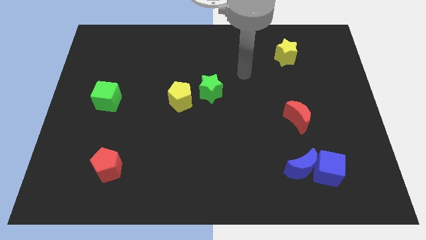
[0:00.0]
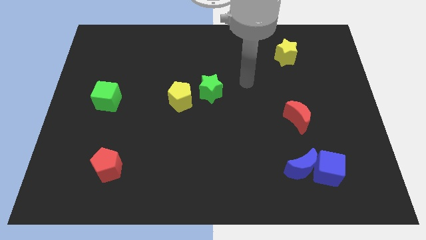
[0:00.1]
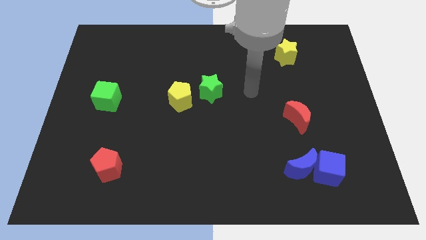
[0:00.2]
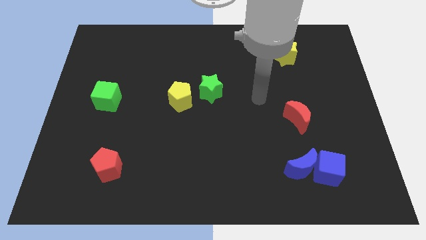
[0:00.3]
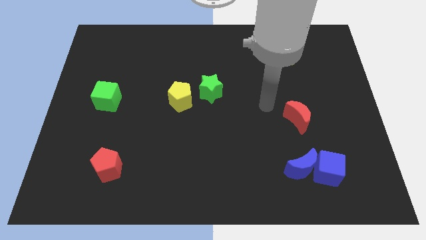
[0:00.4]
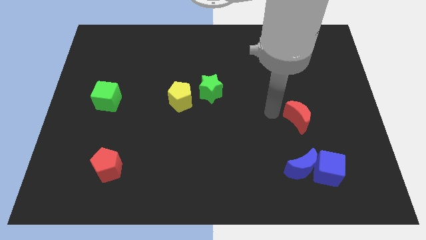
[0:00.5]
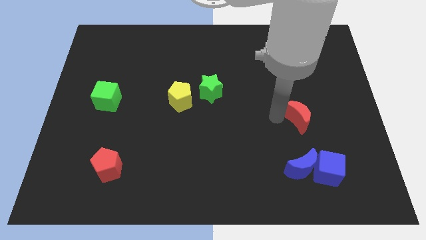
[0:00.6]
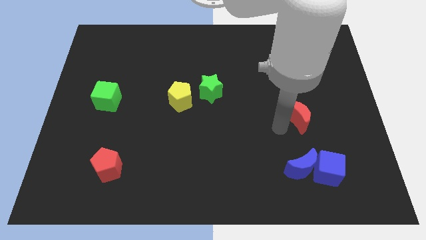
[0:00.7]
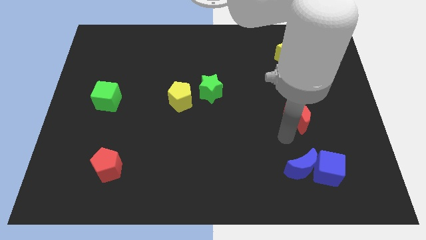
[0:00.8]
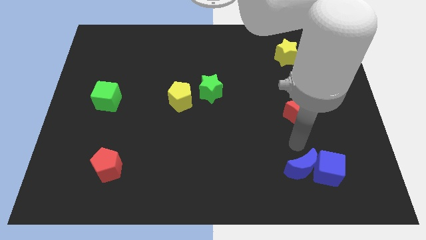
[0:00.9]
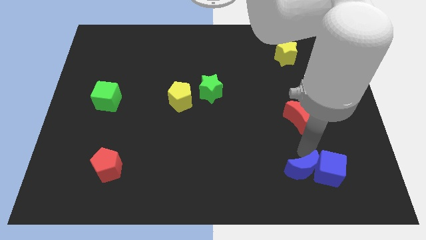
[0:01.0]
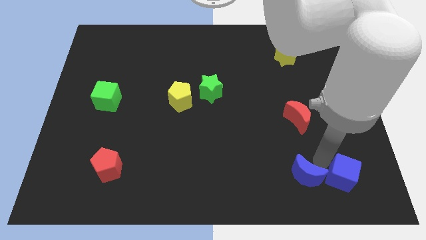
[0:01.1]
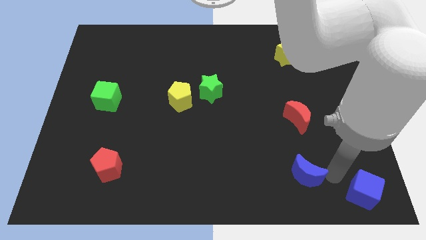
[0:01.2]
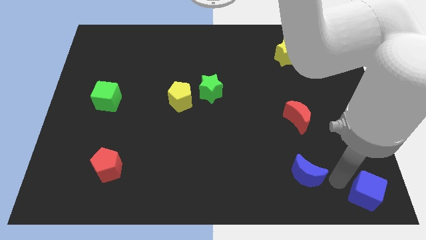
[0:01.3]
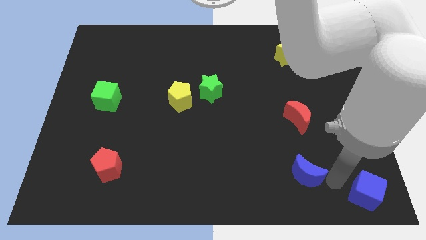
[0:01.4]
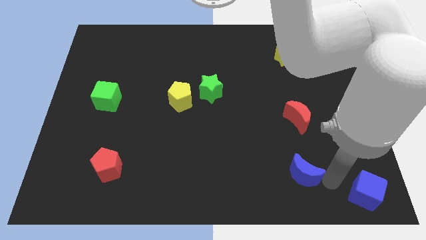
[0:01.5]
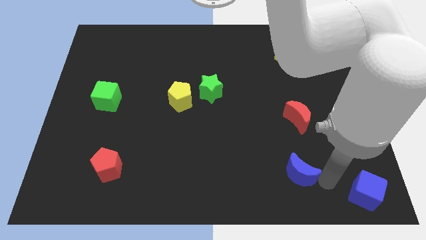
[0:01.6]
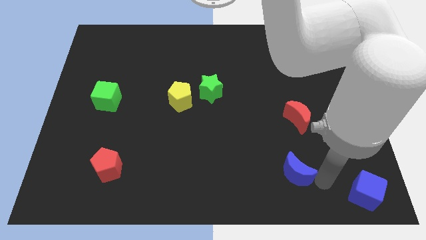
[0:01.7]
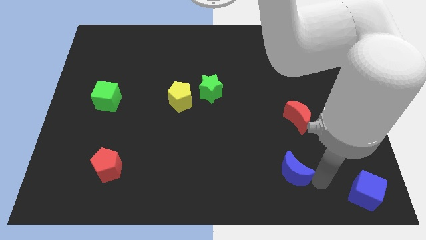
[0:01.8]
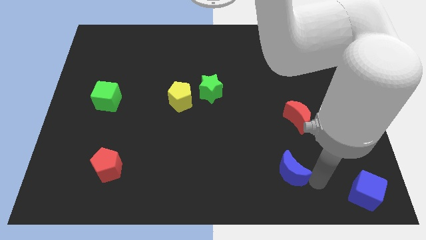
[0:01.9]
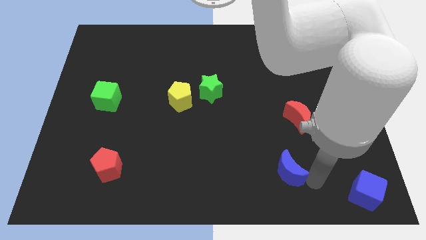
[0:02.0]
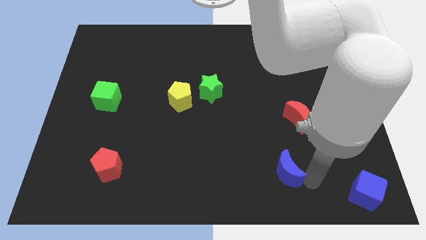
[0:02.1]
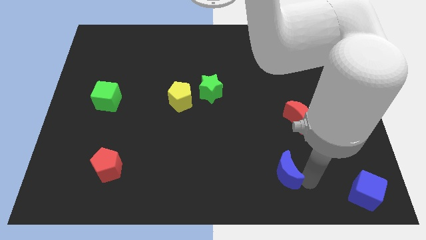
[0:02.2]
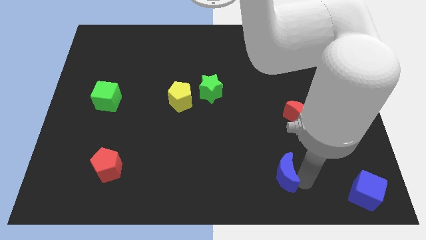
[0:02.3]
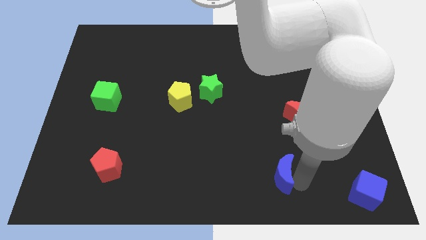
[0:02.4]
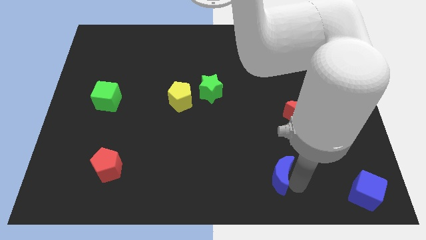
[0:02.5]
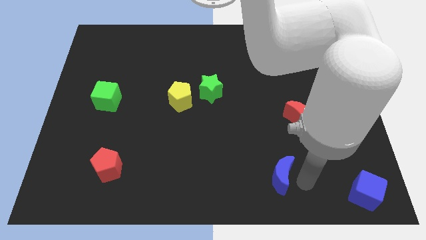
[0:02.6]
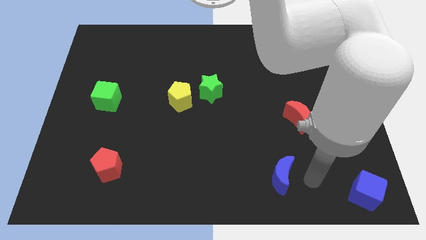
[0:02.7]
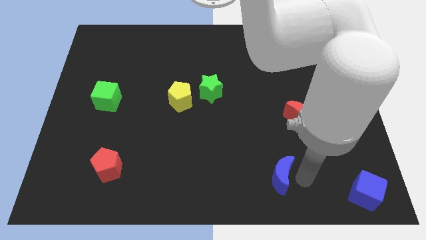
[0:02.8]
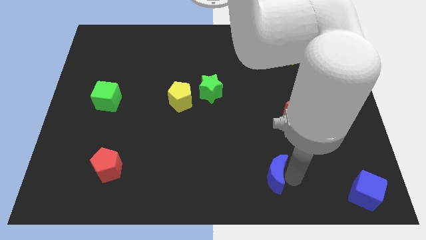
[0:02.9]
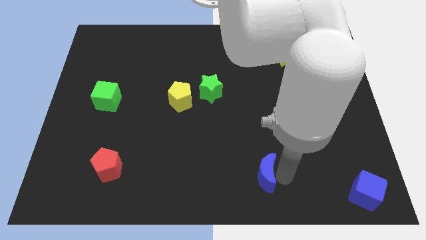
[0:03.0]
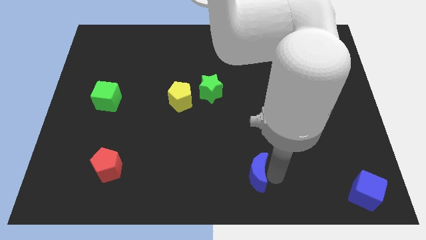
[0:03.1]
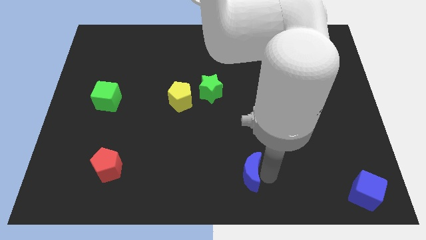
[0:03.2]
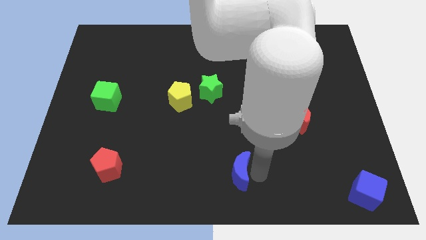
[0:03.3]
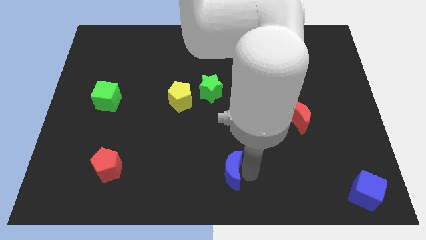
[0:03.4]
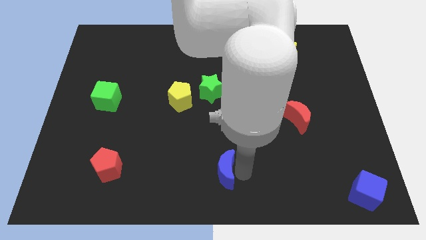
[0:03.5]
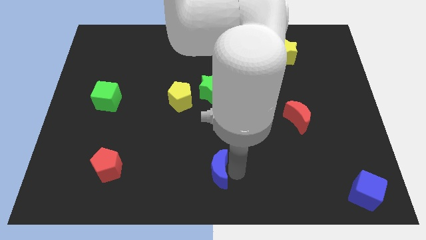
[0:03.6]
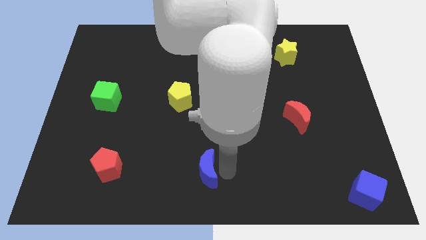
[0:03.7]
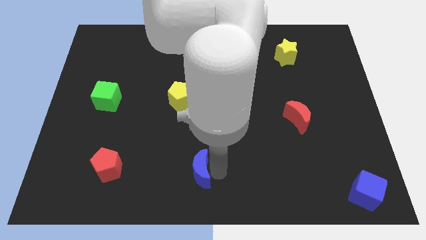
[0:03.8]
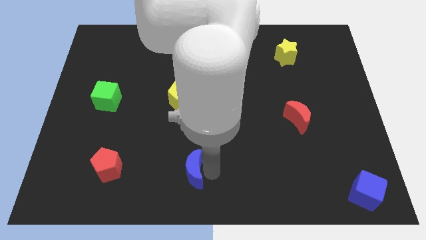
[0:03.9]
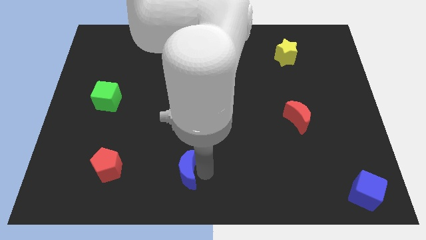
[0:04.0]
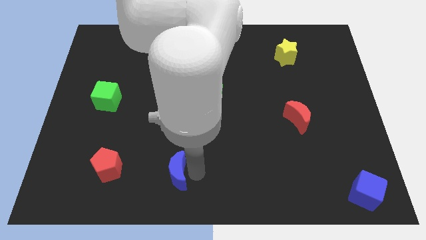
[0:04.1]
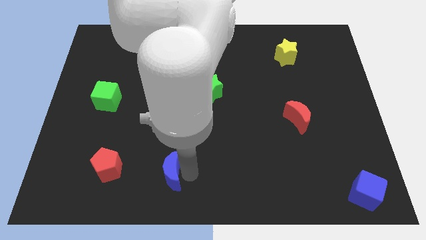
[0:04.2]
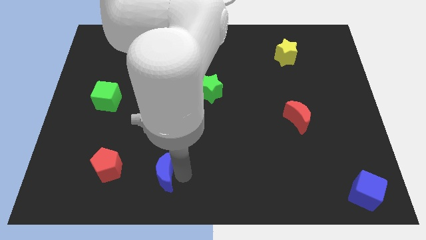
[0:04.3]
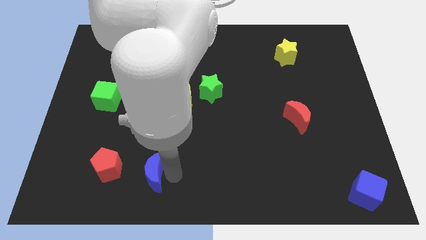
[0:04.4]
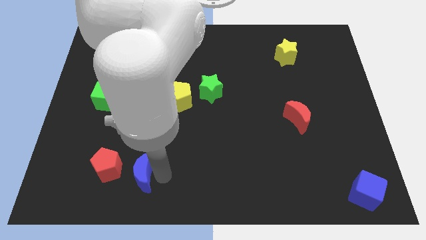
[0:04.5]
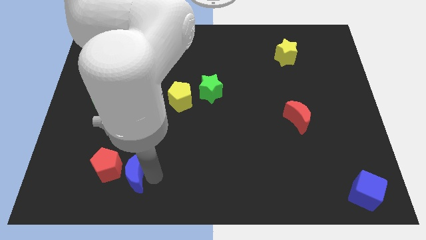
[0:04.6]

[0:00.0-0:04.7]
push the blue moon close to the red pentagon

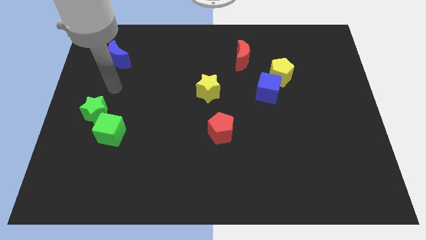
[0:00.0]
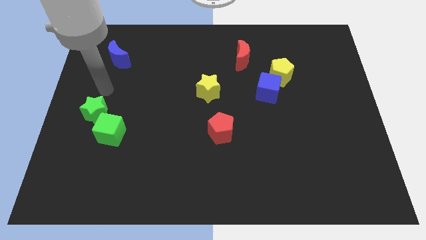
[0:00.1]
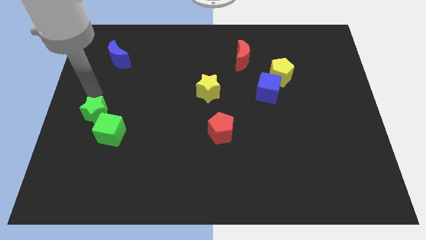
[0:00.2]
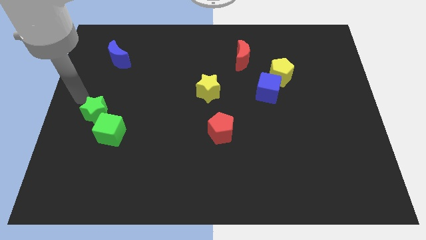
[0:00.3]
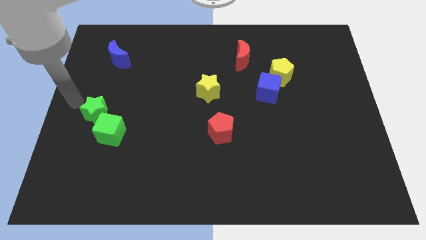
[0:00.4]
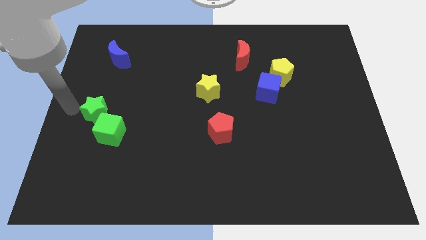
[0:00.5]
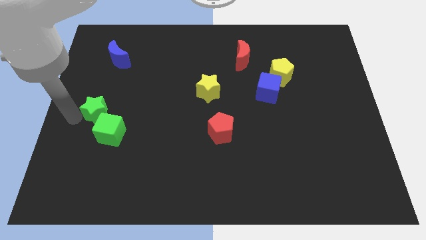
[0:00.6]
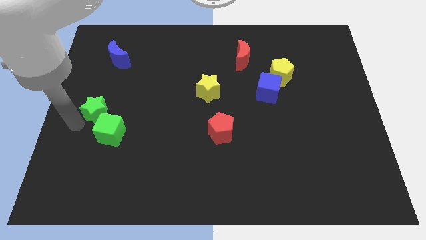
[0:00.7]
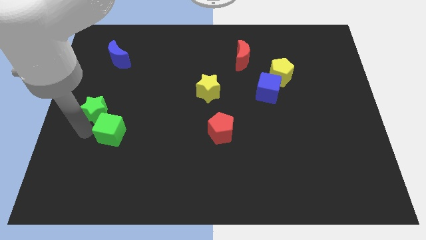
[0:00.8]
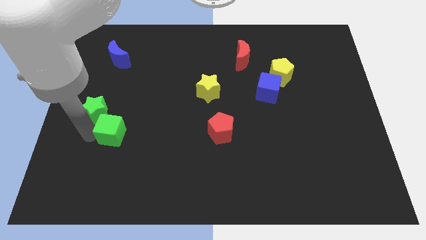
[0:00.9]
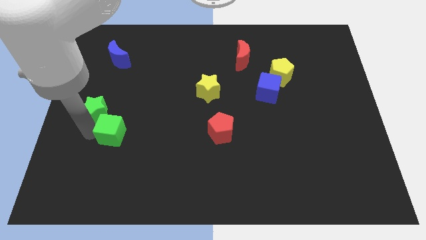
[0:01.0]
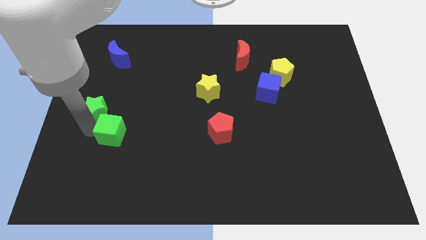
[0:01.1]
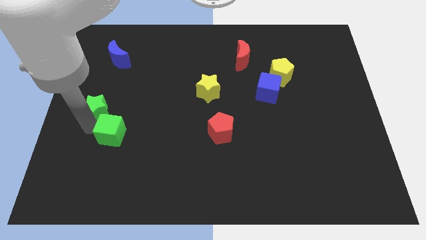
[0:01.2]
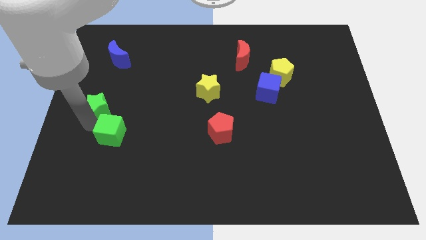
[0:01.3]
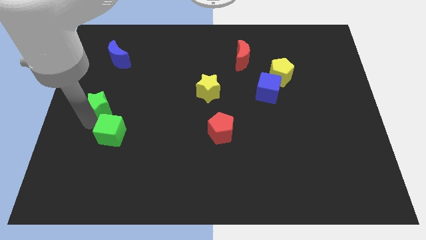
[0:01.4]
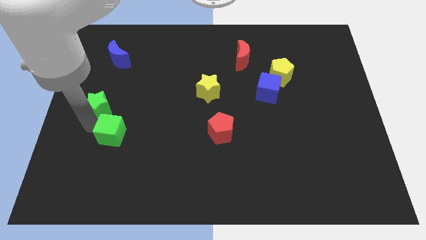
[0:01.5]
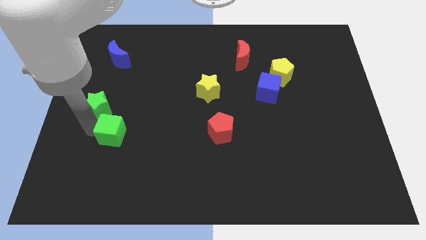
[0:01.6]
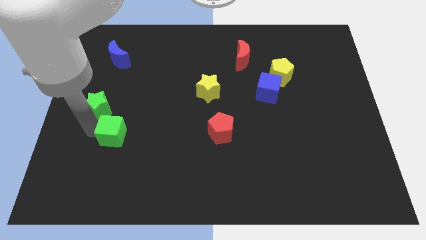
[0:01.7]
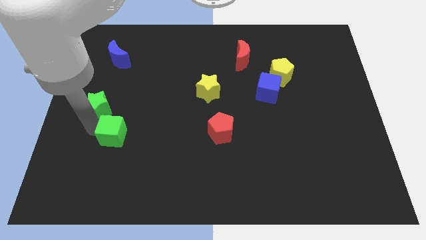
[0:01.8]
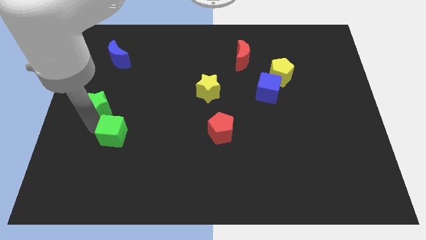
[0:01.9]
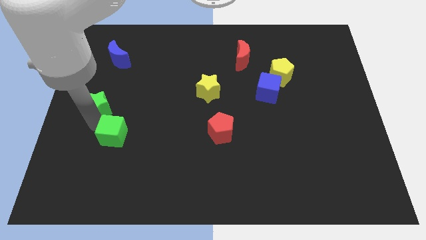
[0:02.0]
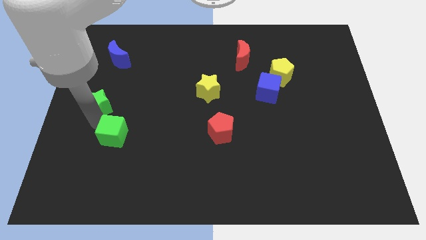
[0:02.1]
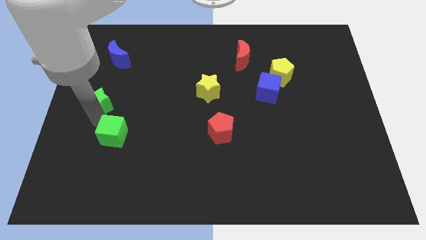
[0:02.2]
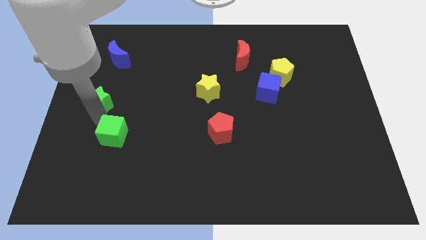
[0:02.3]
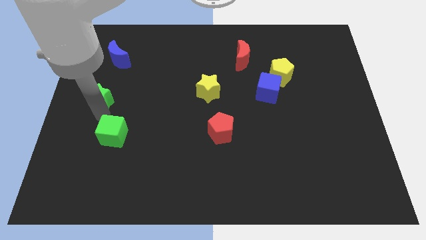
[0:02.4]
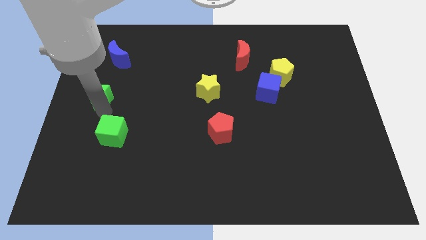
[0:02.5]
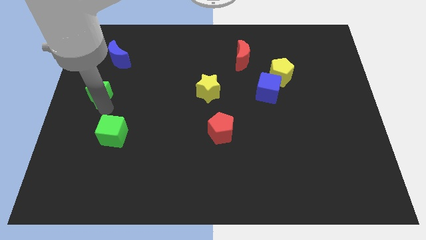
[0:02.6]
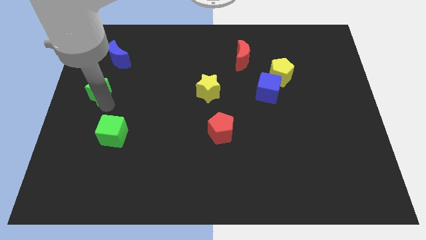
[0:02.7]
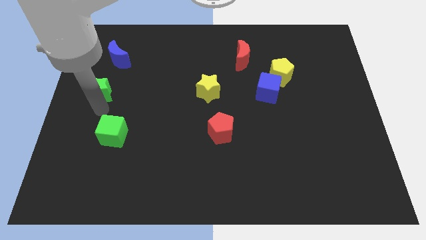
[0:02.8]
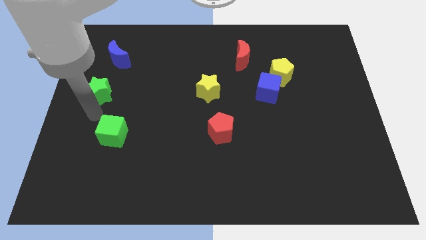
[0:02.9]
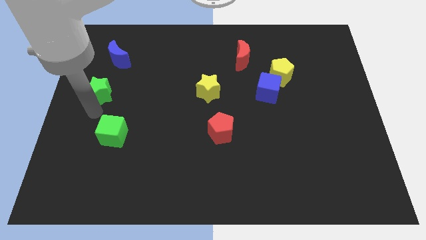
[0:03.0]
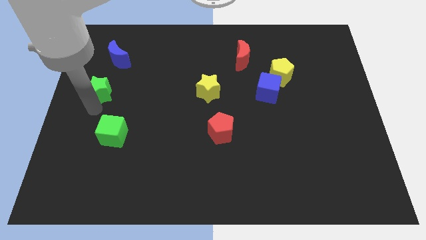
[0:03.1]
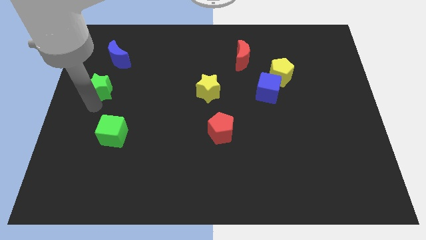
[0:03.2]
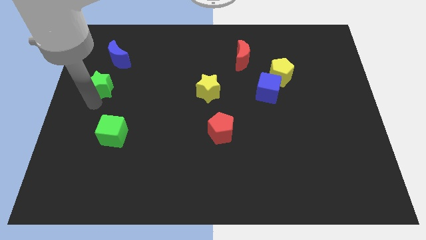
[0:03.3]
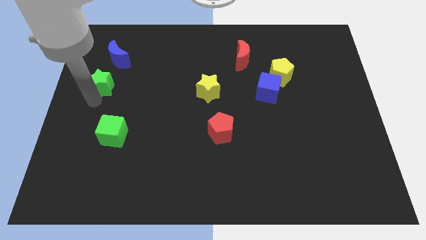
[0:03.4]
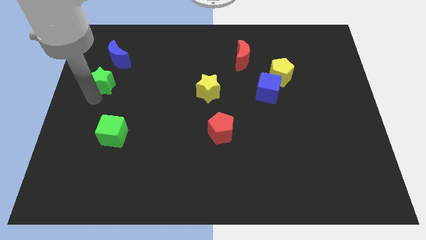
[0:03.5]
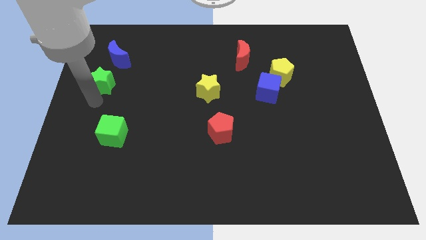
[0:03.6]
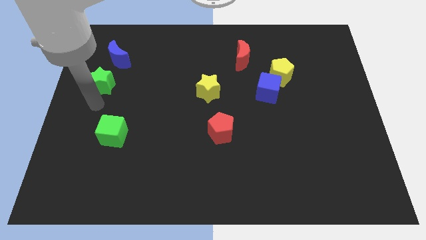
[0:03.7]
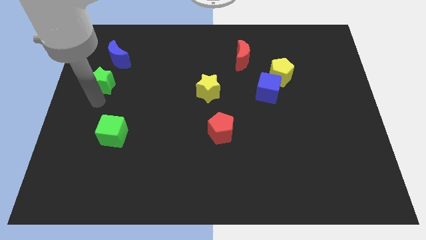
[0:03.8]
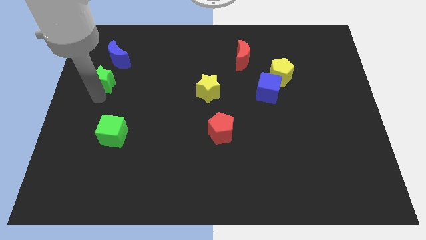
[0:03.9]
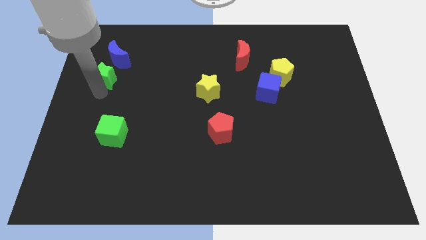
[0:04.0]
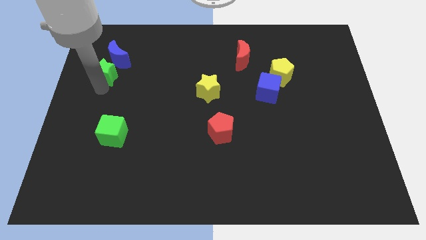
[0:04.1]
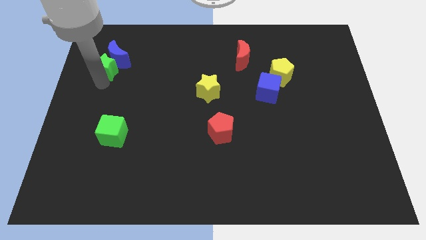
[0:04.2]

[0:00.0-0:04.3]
put the green star close to the blue moon
